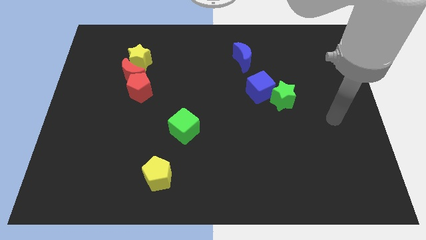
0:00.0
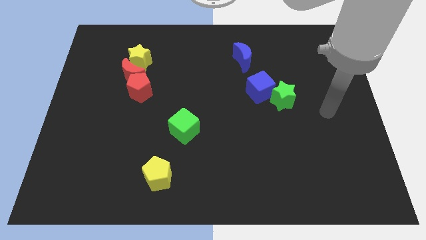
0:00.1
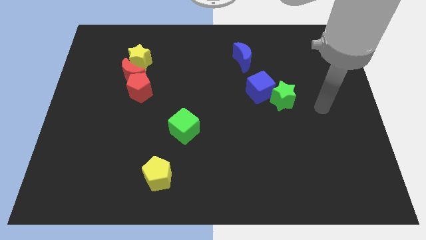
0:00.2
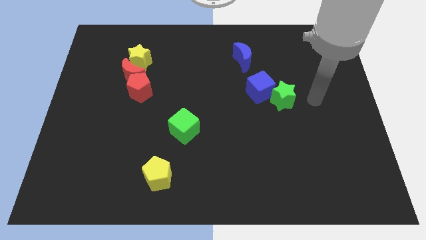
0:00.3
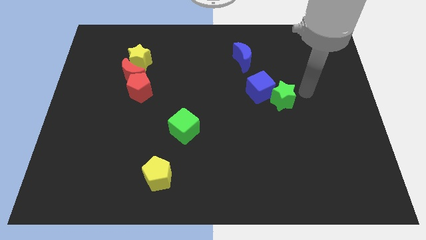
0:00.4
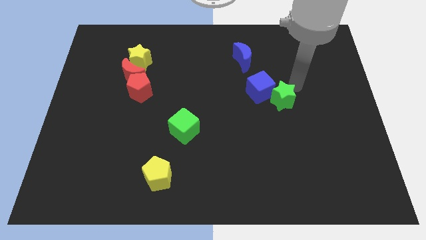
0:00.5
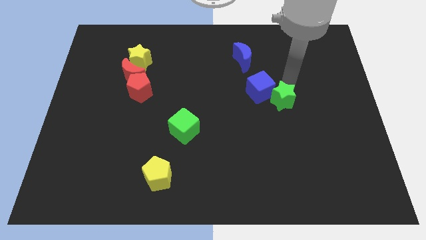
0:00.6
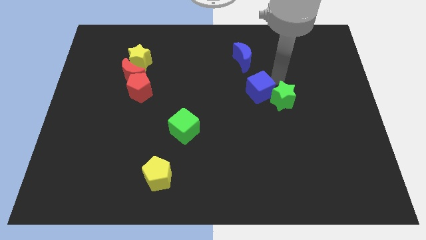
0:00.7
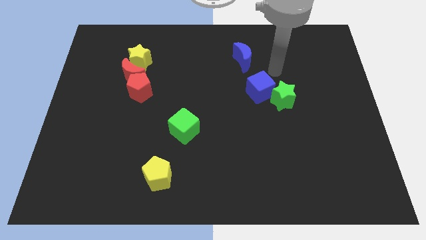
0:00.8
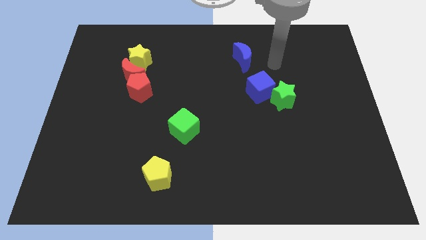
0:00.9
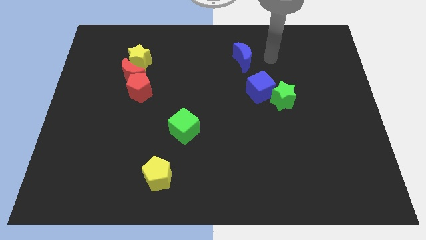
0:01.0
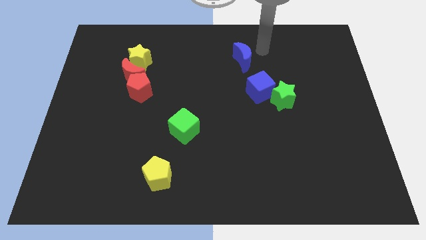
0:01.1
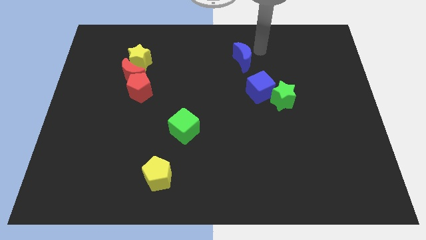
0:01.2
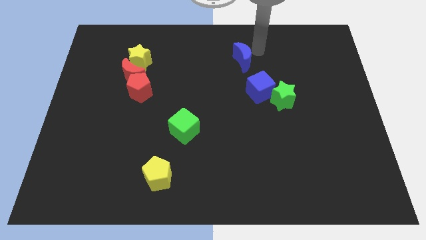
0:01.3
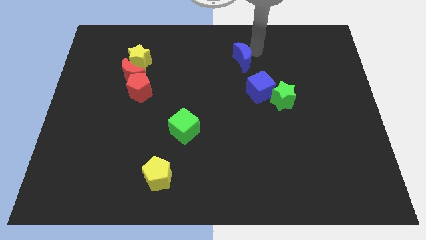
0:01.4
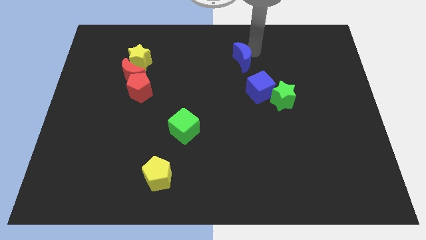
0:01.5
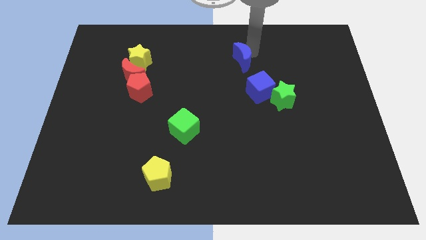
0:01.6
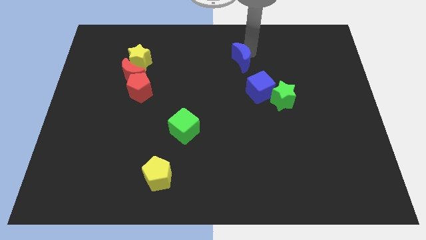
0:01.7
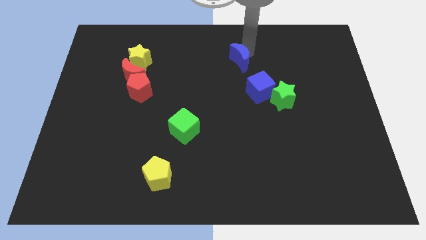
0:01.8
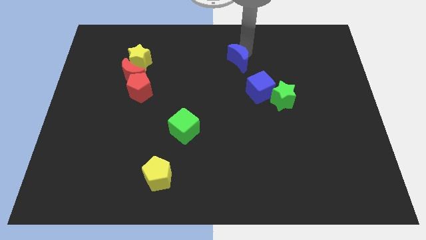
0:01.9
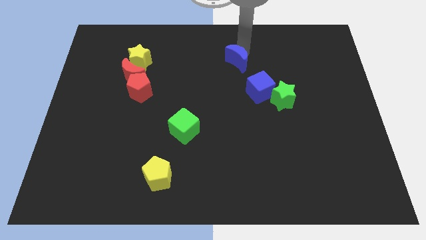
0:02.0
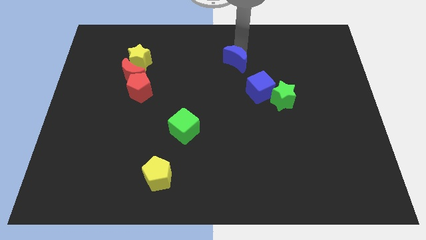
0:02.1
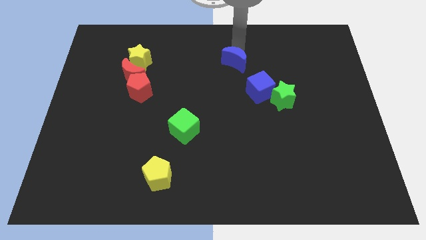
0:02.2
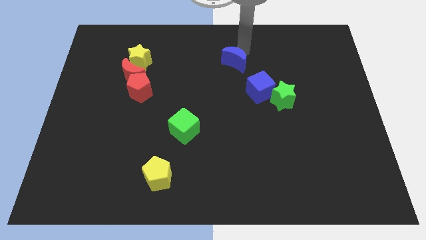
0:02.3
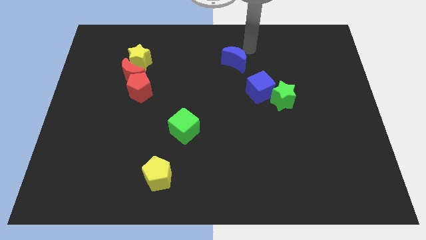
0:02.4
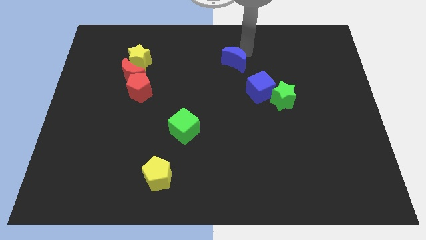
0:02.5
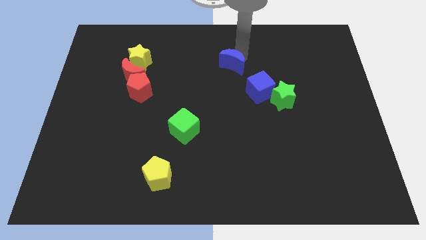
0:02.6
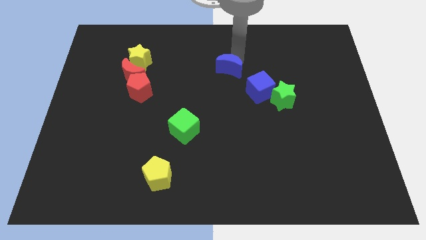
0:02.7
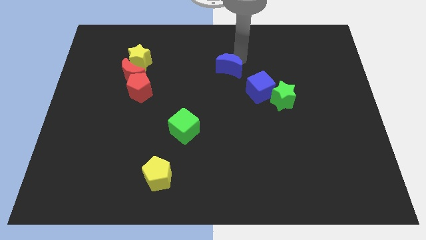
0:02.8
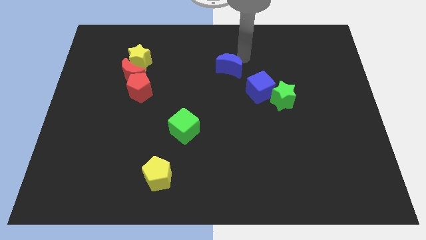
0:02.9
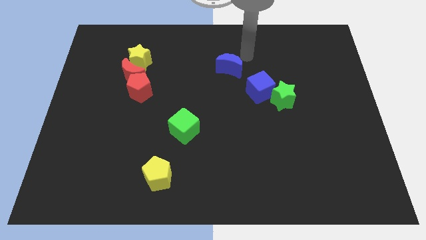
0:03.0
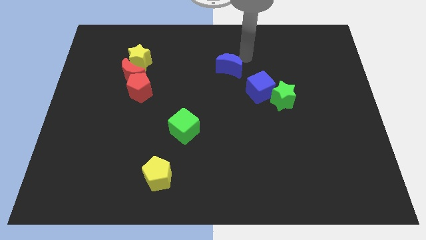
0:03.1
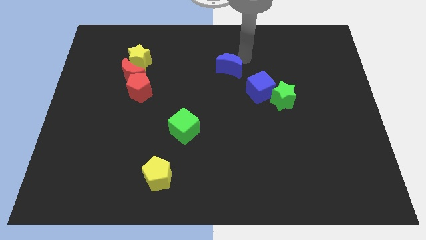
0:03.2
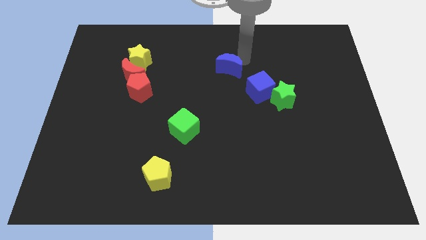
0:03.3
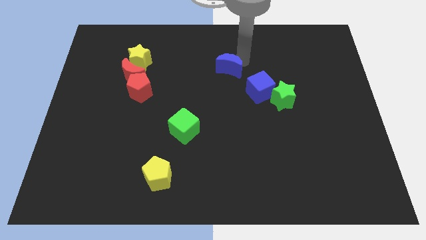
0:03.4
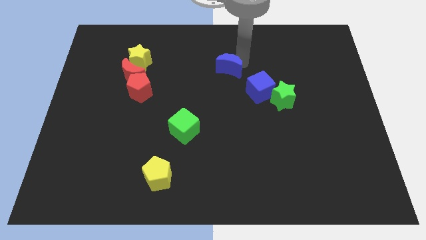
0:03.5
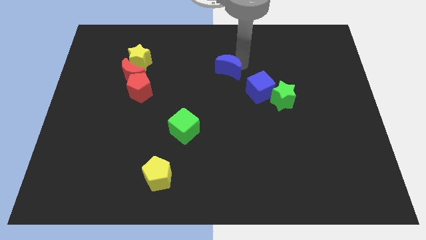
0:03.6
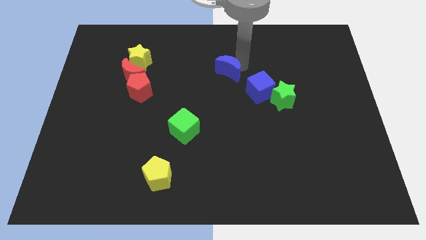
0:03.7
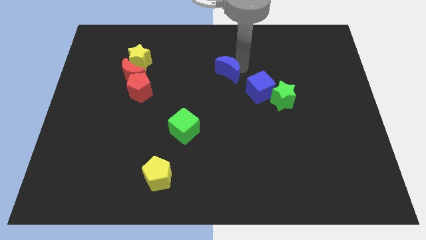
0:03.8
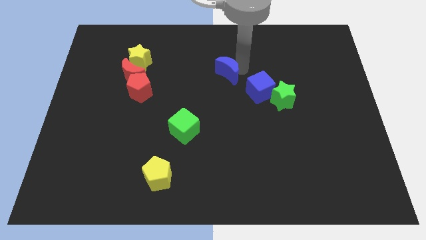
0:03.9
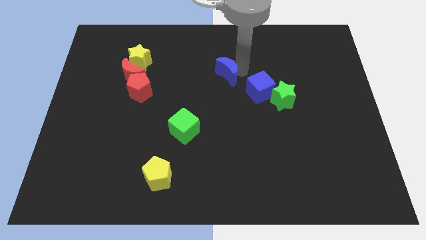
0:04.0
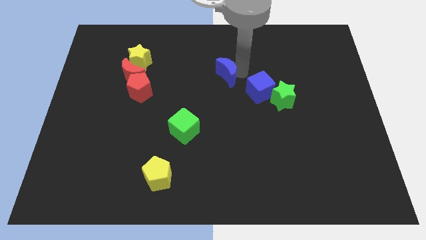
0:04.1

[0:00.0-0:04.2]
push the blue moon down and left slightly

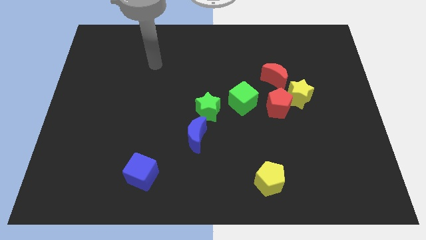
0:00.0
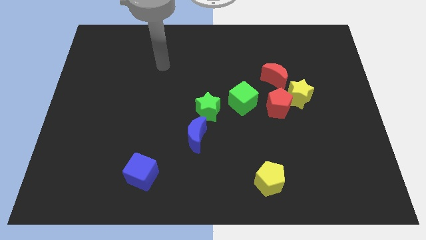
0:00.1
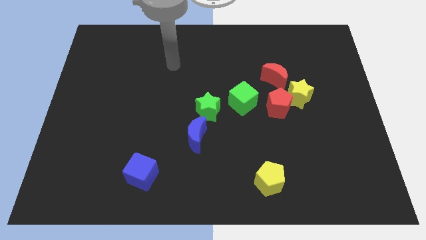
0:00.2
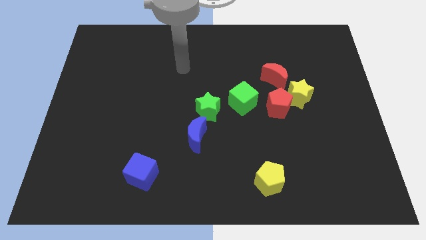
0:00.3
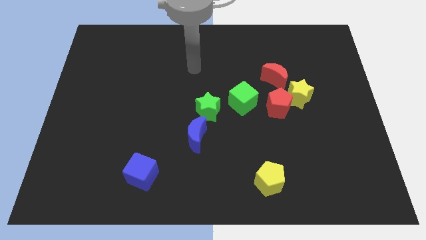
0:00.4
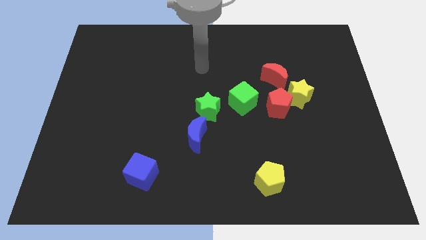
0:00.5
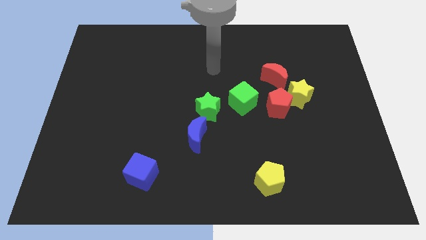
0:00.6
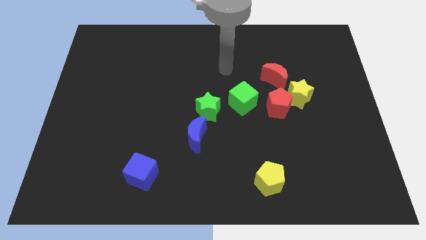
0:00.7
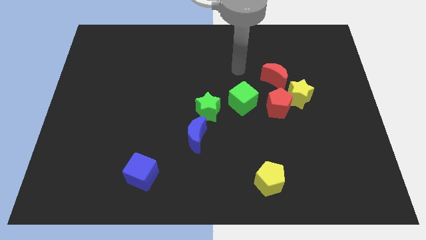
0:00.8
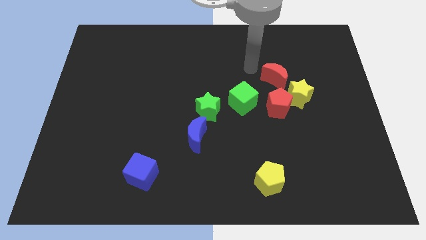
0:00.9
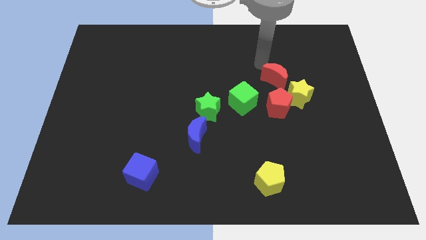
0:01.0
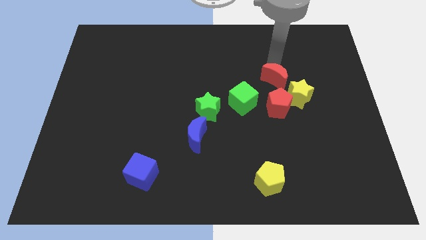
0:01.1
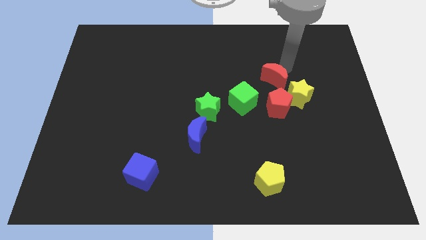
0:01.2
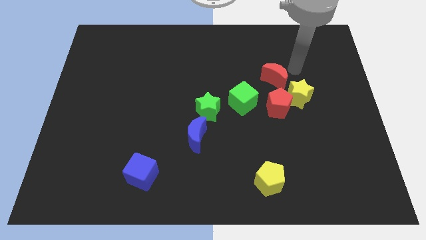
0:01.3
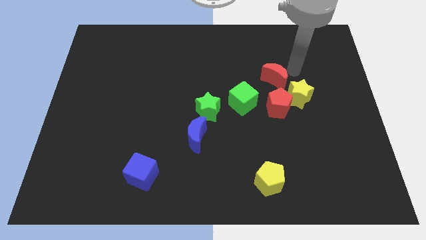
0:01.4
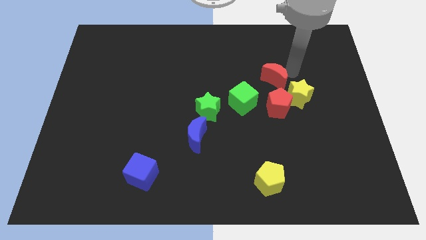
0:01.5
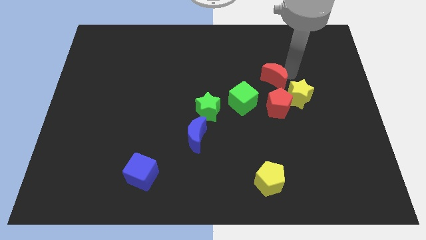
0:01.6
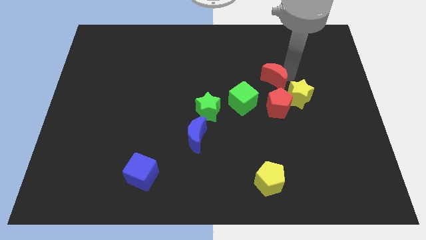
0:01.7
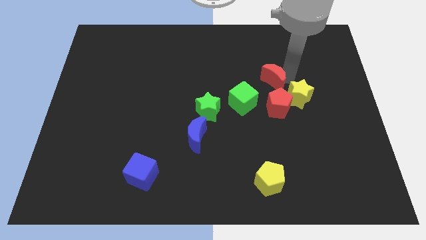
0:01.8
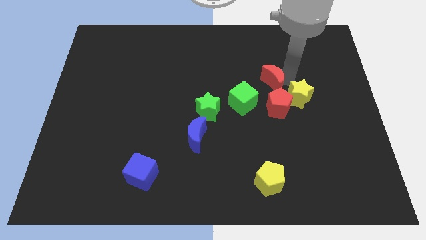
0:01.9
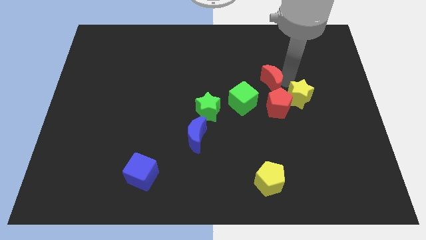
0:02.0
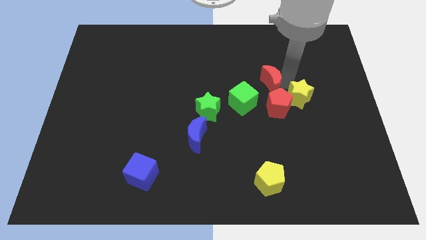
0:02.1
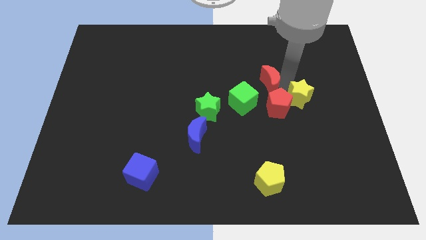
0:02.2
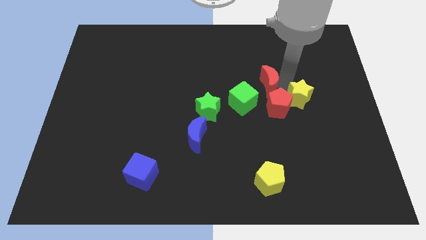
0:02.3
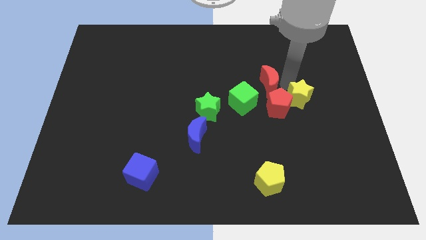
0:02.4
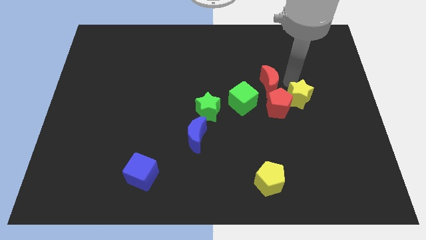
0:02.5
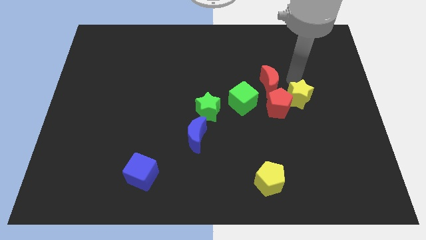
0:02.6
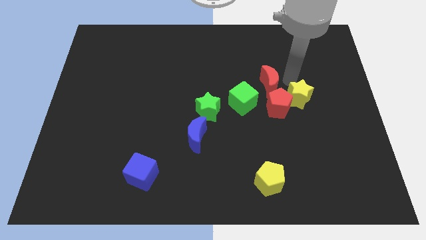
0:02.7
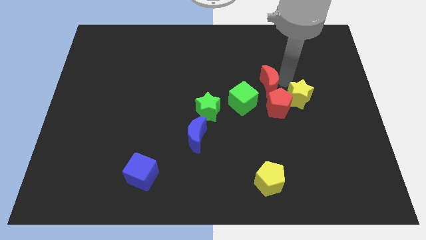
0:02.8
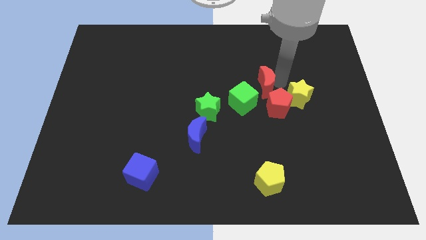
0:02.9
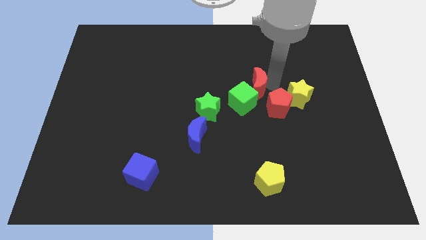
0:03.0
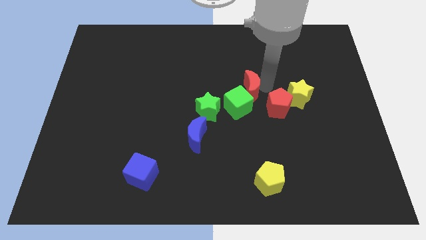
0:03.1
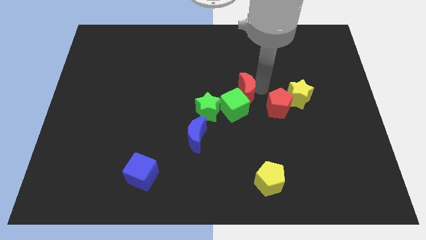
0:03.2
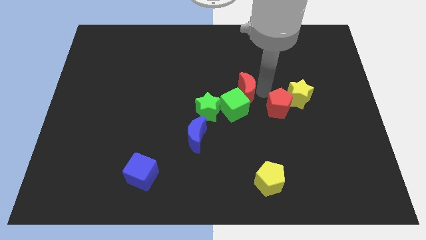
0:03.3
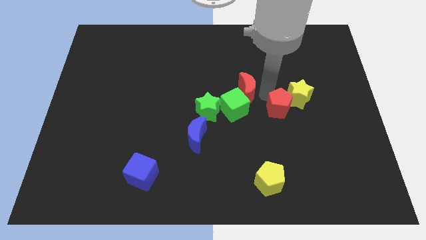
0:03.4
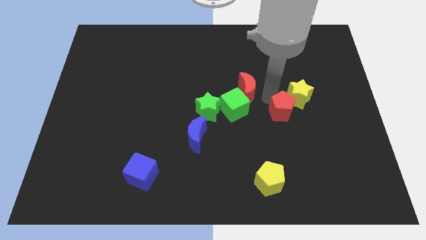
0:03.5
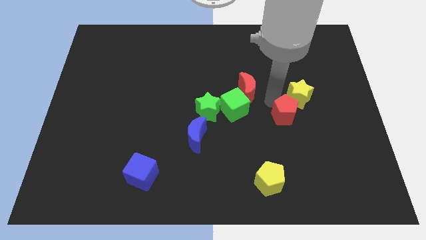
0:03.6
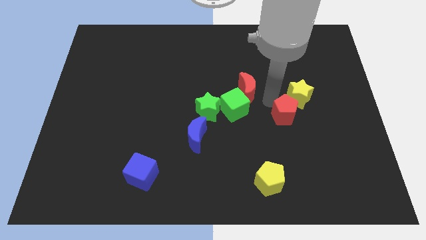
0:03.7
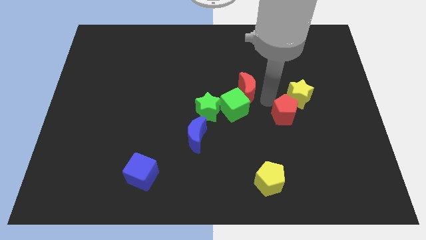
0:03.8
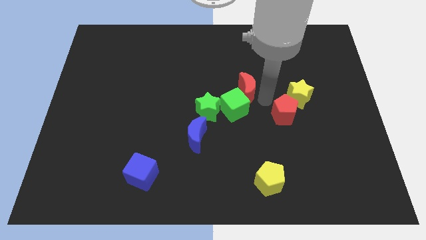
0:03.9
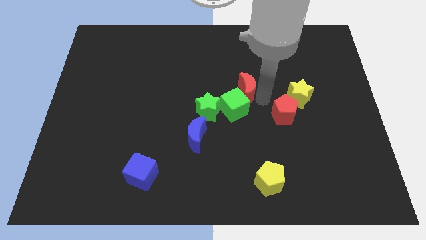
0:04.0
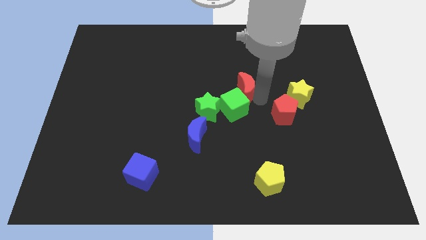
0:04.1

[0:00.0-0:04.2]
slide the red moon to the left slightly
